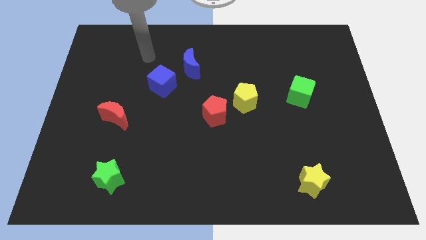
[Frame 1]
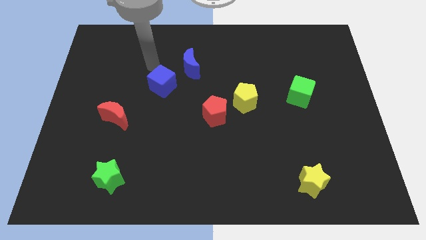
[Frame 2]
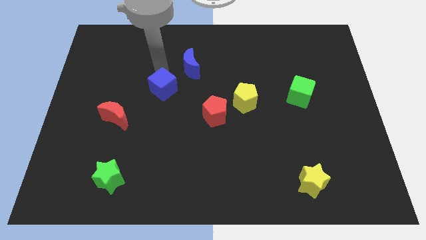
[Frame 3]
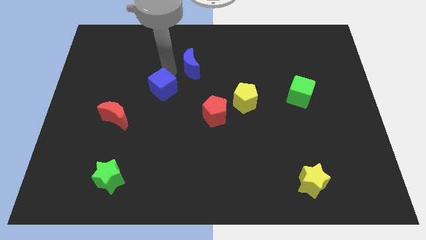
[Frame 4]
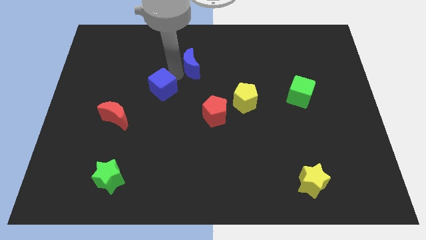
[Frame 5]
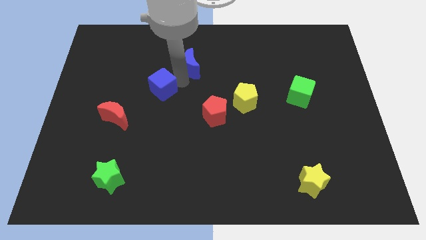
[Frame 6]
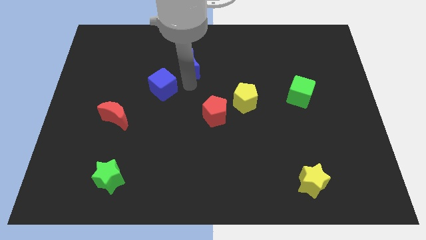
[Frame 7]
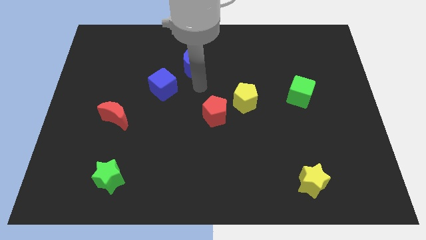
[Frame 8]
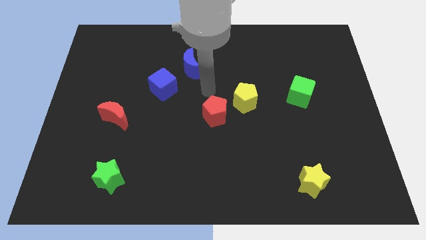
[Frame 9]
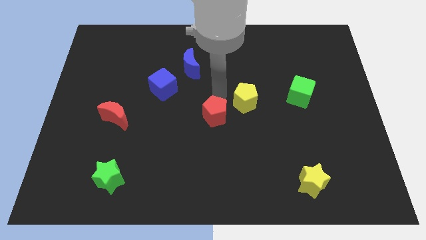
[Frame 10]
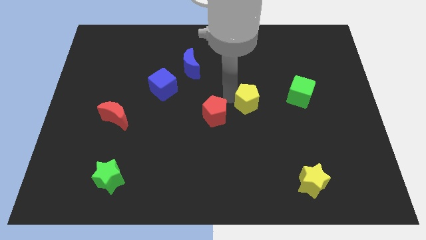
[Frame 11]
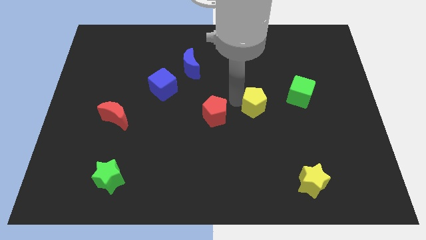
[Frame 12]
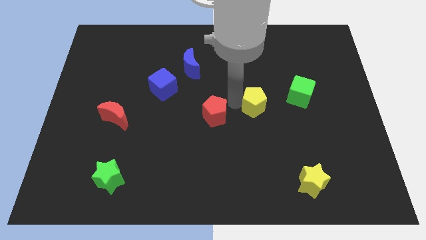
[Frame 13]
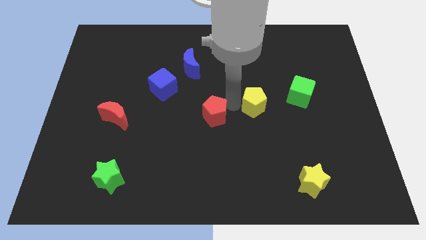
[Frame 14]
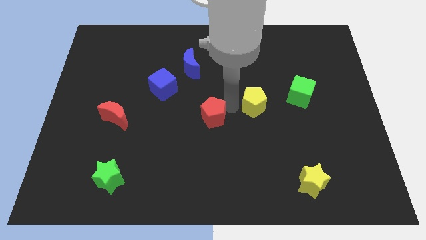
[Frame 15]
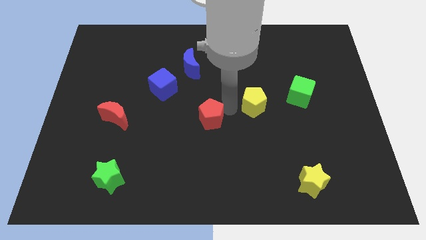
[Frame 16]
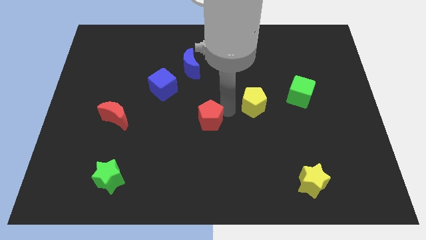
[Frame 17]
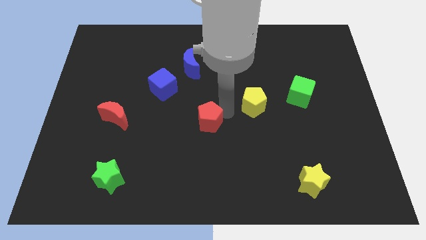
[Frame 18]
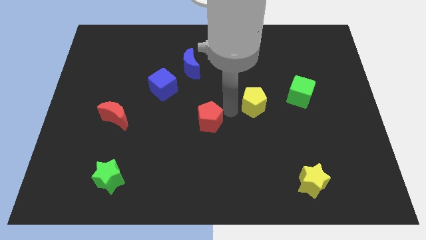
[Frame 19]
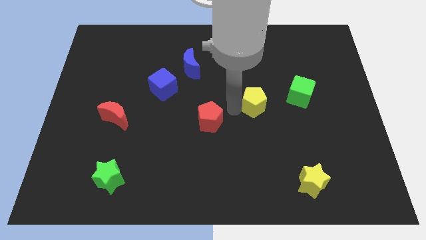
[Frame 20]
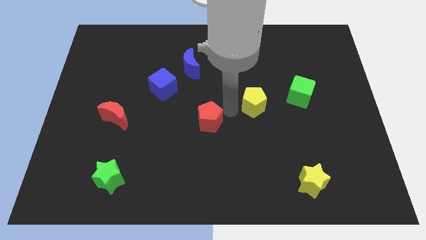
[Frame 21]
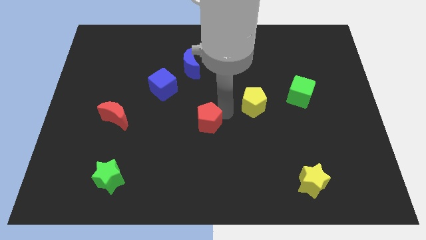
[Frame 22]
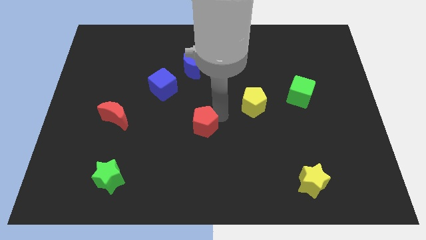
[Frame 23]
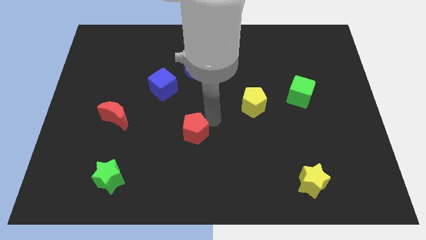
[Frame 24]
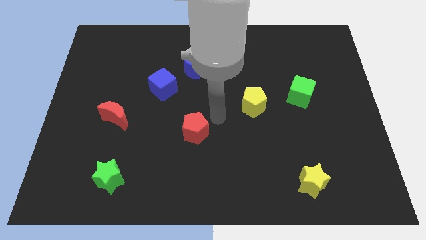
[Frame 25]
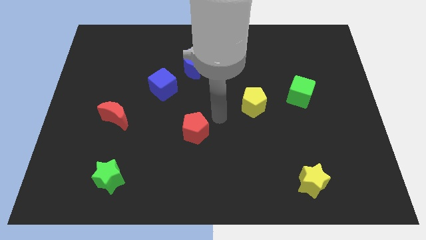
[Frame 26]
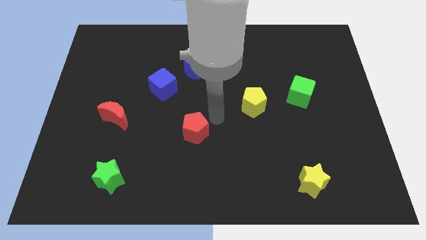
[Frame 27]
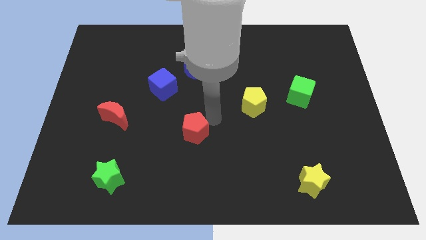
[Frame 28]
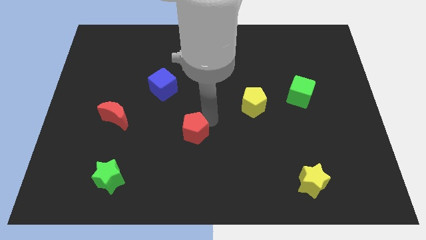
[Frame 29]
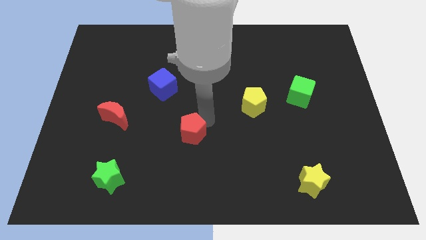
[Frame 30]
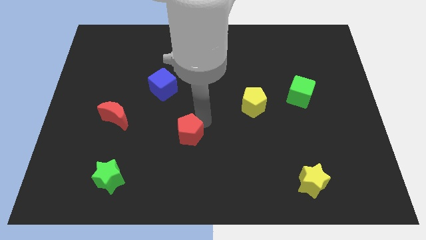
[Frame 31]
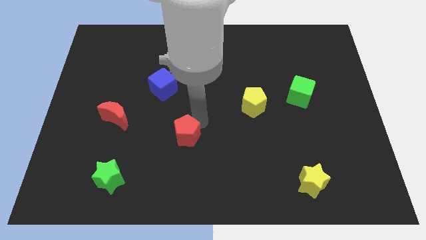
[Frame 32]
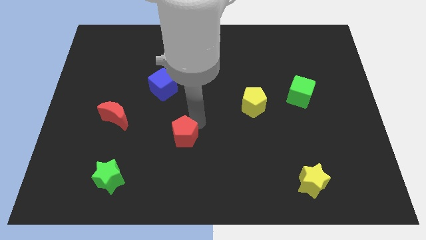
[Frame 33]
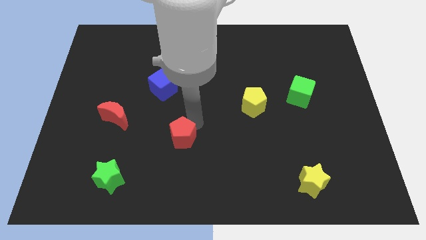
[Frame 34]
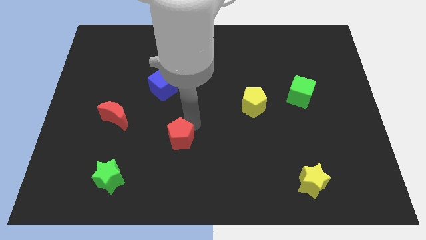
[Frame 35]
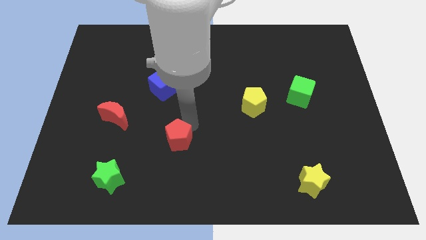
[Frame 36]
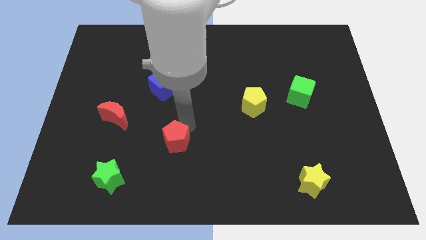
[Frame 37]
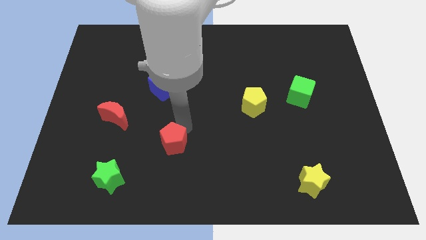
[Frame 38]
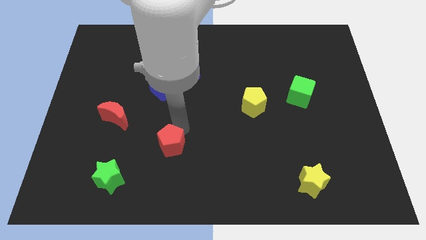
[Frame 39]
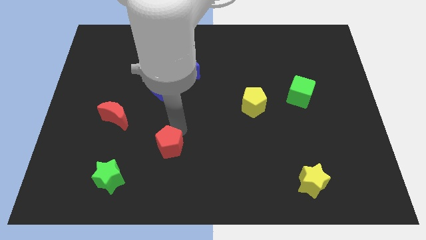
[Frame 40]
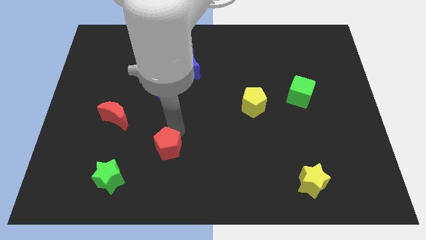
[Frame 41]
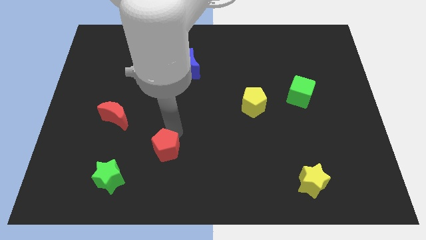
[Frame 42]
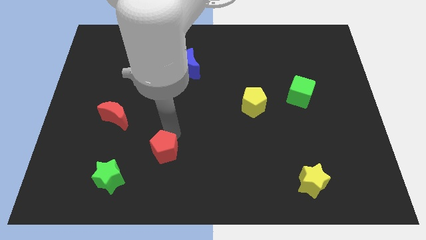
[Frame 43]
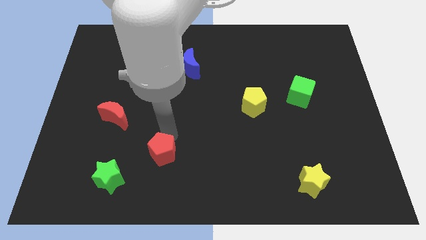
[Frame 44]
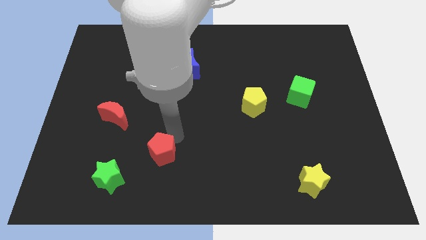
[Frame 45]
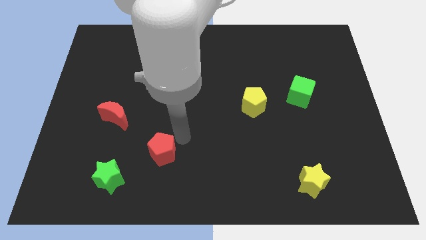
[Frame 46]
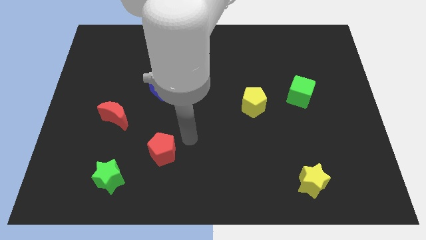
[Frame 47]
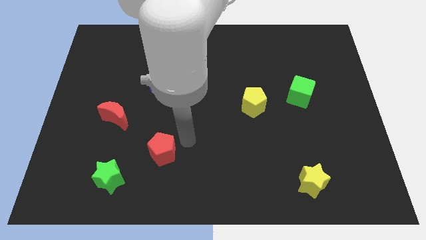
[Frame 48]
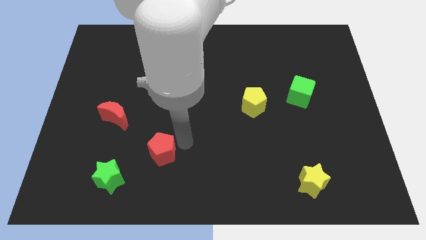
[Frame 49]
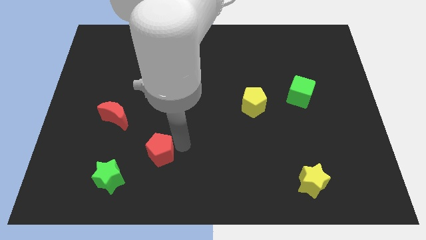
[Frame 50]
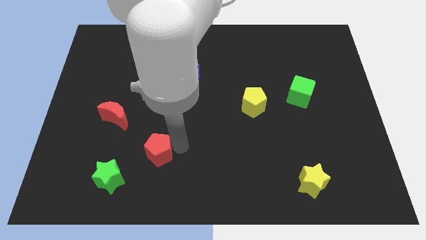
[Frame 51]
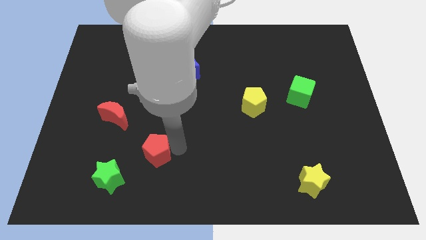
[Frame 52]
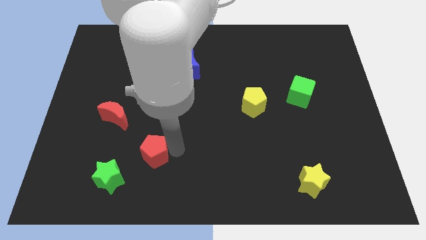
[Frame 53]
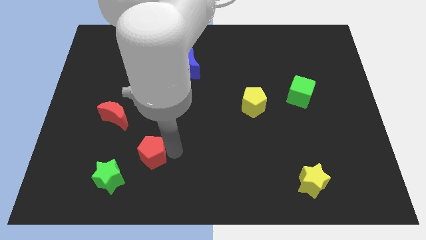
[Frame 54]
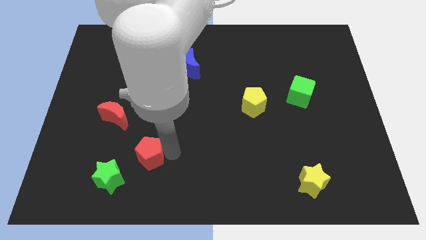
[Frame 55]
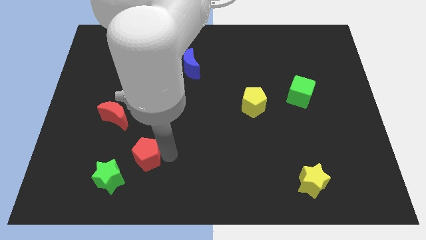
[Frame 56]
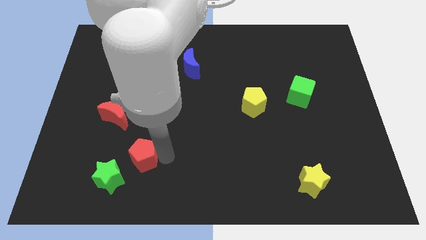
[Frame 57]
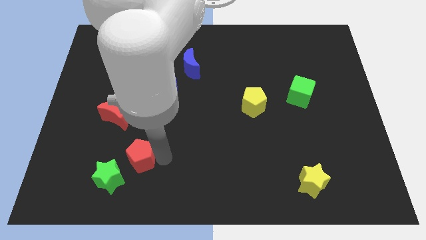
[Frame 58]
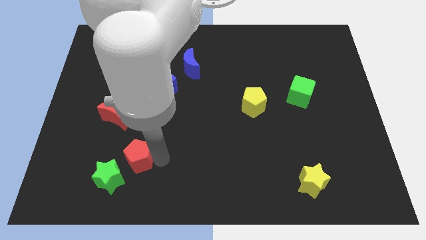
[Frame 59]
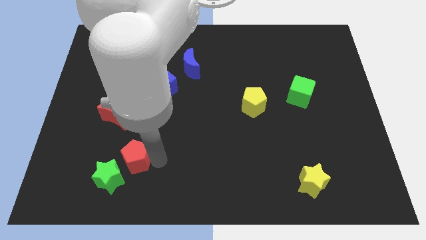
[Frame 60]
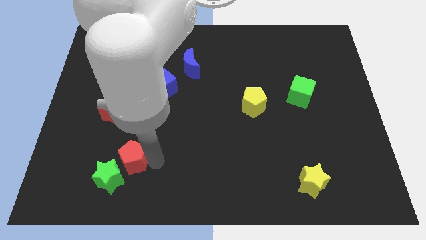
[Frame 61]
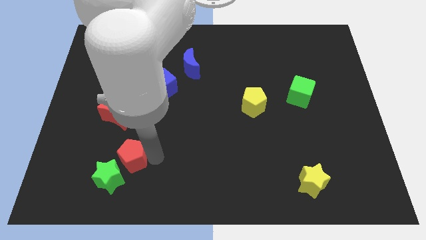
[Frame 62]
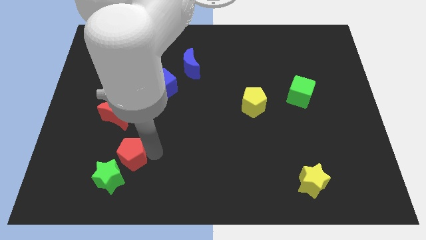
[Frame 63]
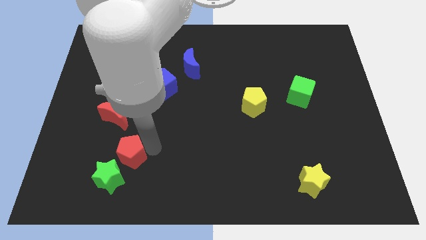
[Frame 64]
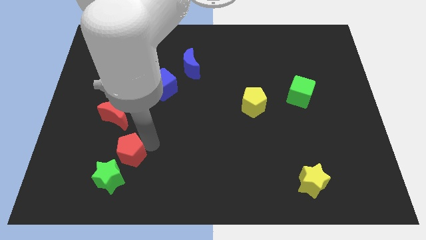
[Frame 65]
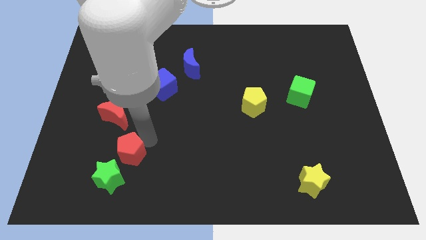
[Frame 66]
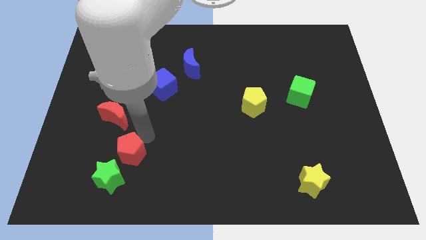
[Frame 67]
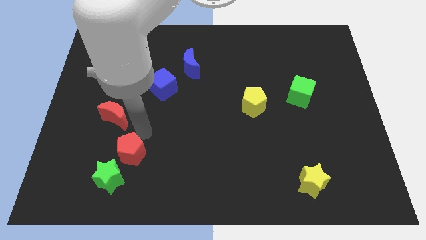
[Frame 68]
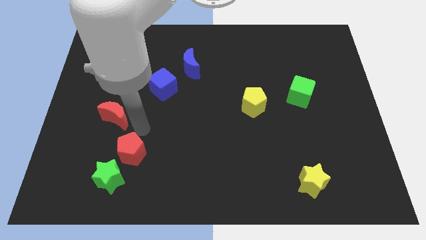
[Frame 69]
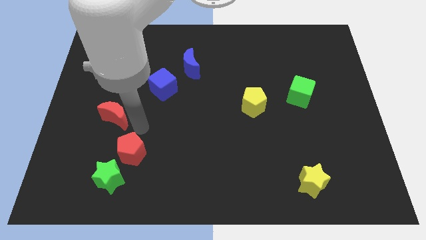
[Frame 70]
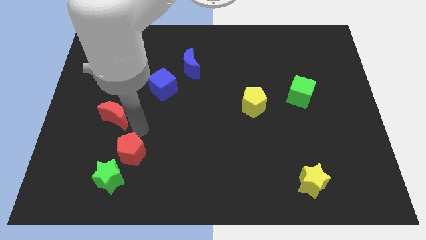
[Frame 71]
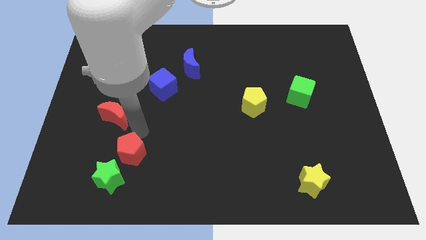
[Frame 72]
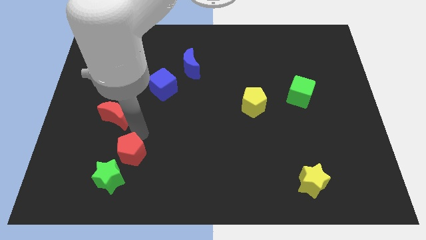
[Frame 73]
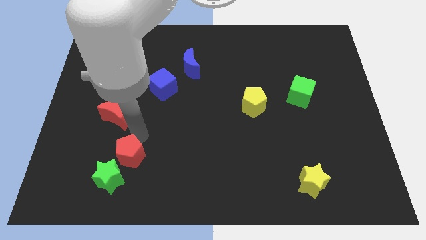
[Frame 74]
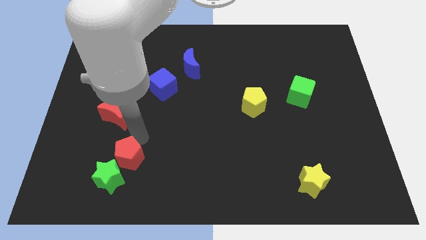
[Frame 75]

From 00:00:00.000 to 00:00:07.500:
put the red pentagon towards the green star

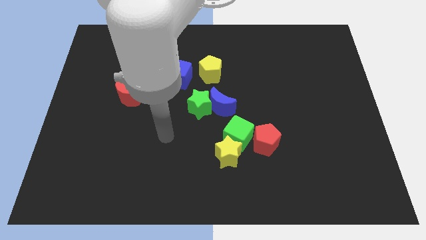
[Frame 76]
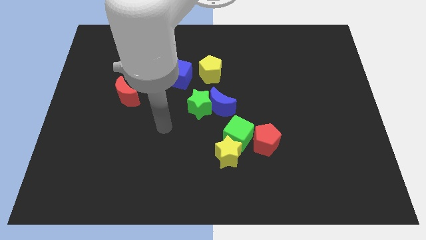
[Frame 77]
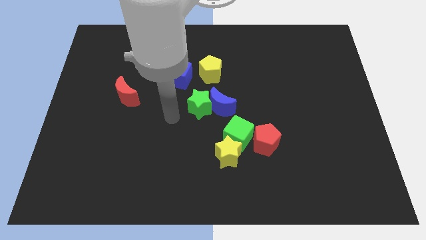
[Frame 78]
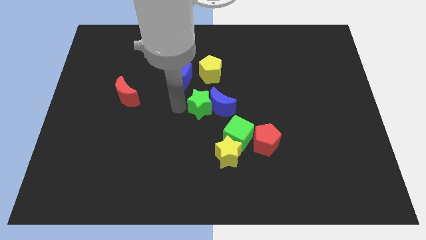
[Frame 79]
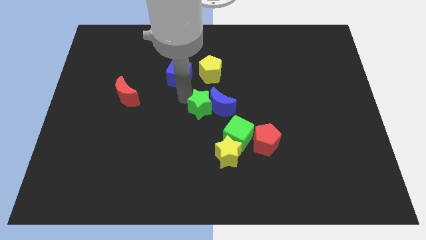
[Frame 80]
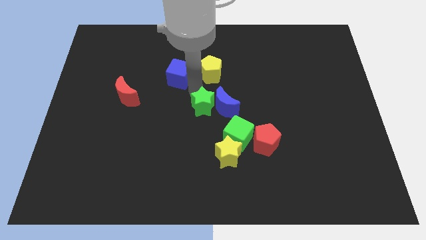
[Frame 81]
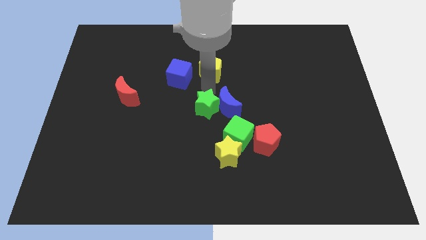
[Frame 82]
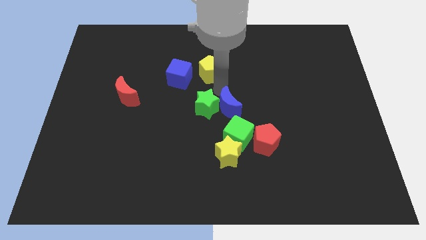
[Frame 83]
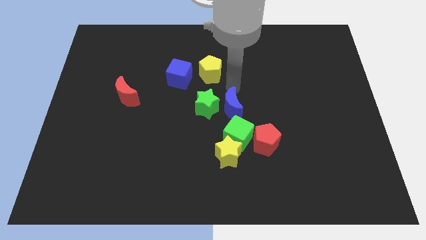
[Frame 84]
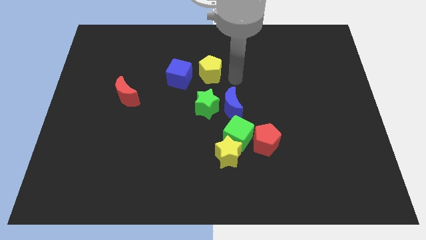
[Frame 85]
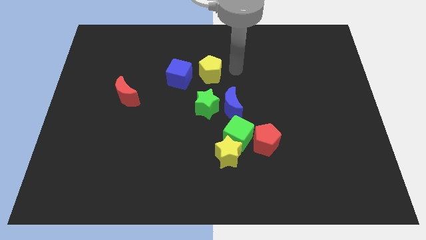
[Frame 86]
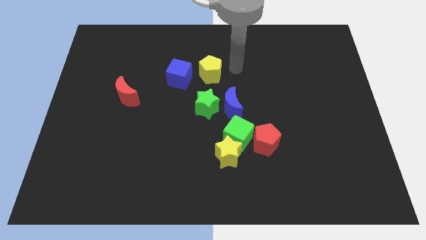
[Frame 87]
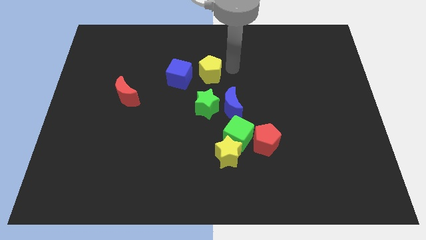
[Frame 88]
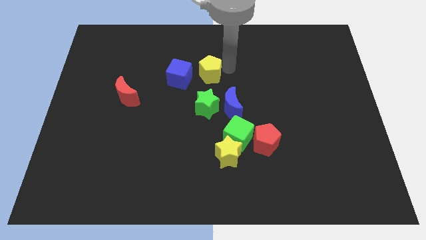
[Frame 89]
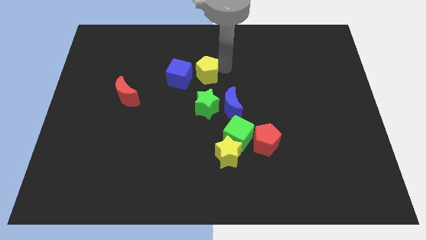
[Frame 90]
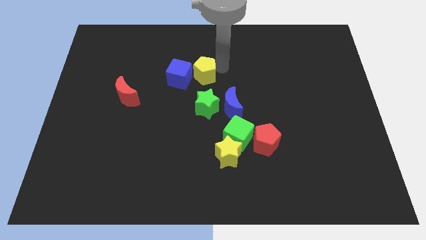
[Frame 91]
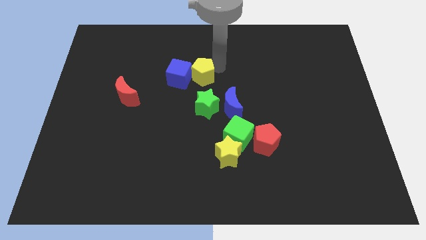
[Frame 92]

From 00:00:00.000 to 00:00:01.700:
move the yellow pentagon towards the blue cube
